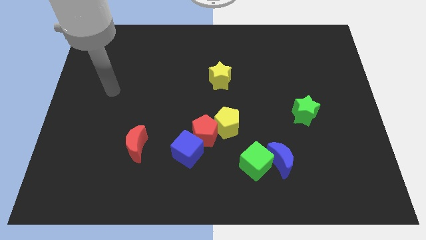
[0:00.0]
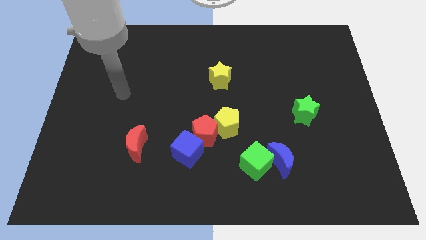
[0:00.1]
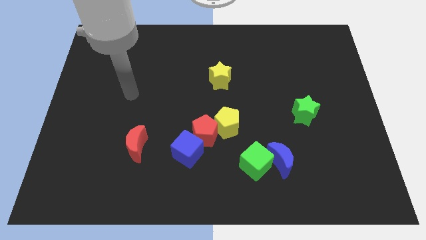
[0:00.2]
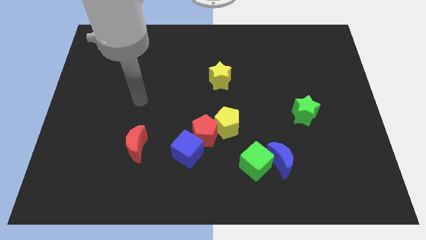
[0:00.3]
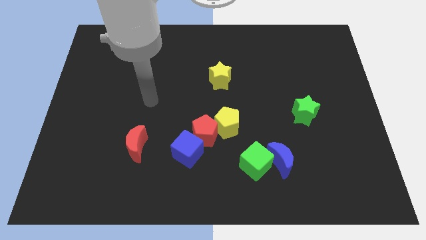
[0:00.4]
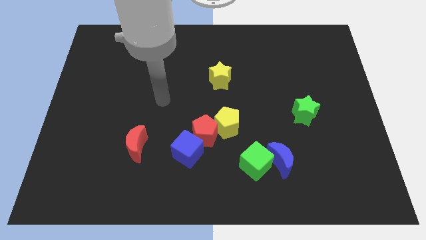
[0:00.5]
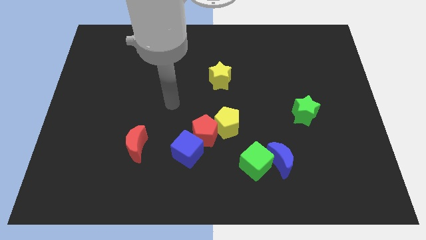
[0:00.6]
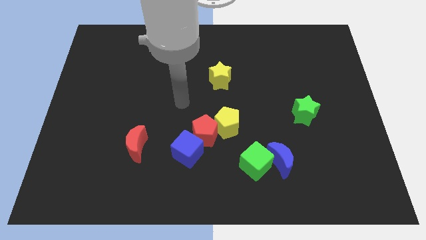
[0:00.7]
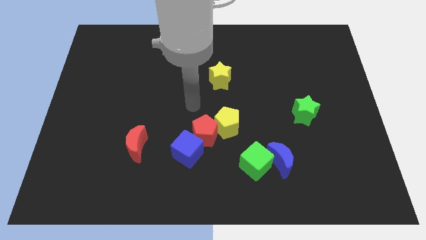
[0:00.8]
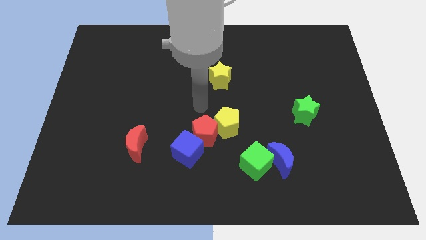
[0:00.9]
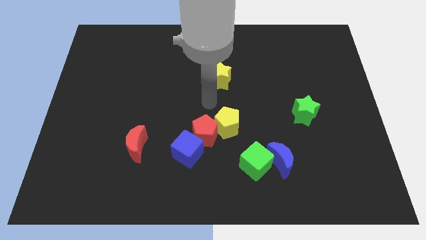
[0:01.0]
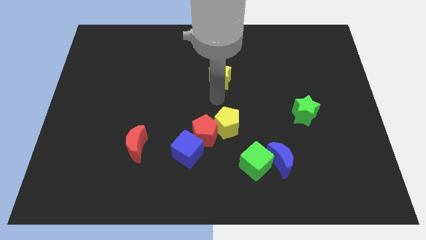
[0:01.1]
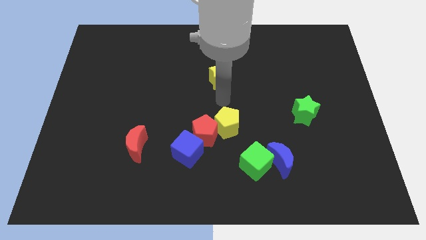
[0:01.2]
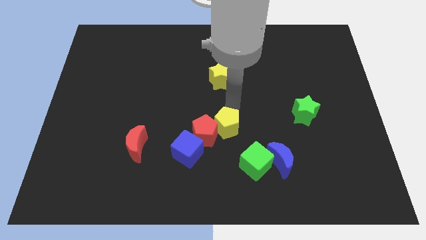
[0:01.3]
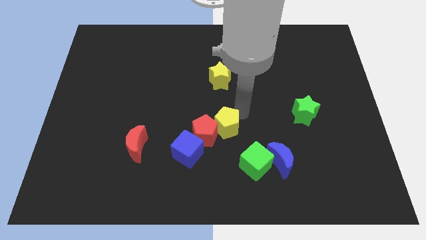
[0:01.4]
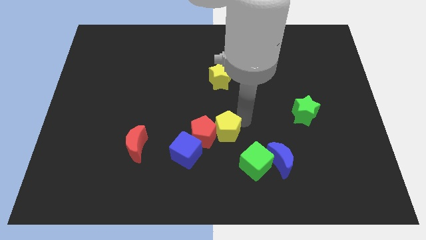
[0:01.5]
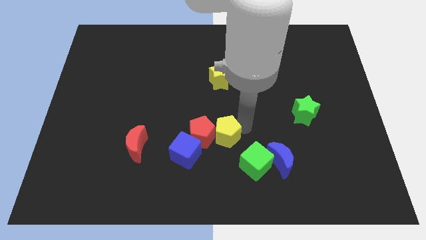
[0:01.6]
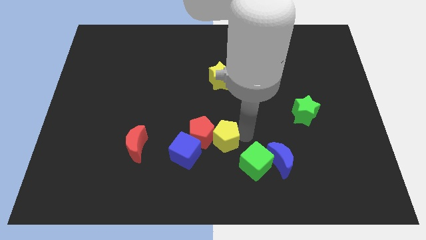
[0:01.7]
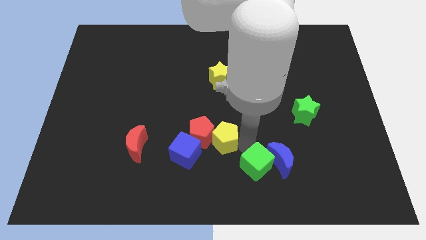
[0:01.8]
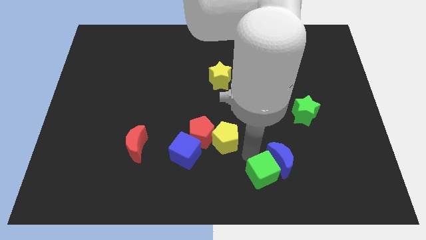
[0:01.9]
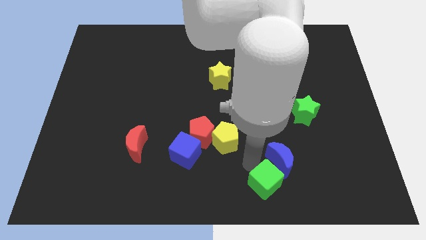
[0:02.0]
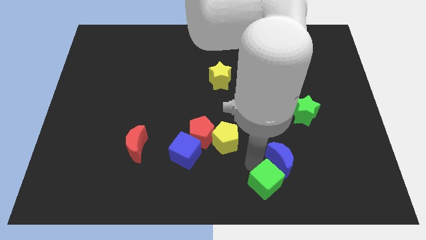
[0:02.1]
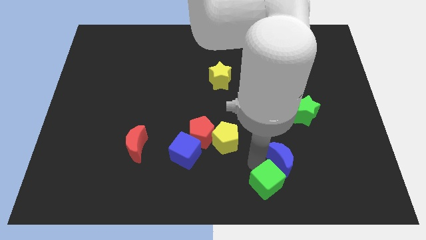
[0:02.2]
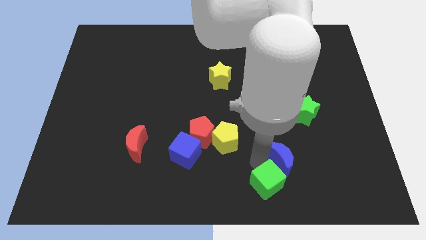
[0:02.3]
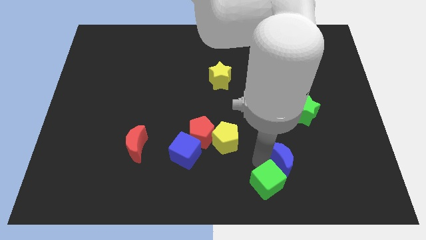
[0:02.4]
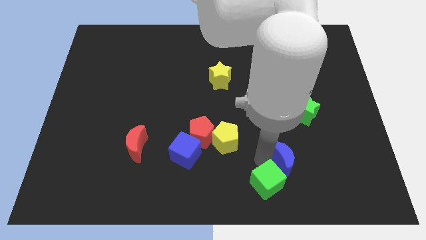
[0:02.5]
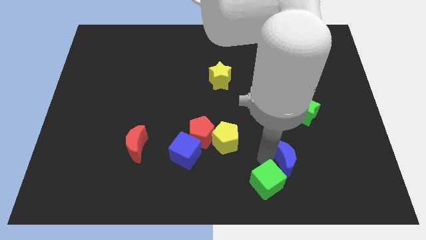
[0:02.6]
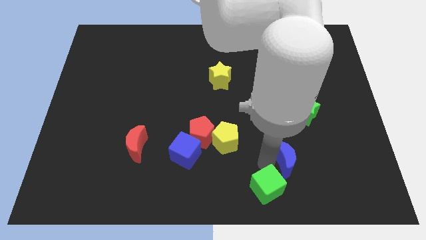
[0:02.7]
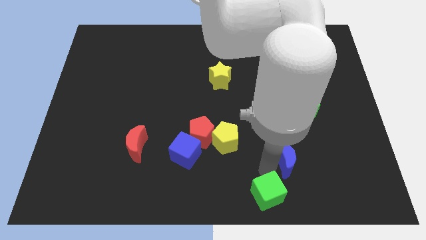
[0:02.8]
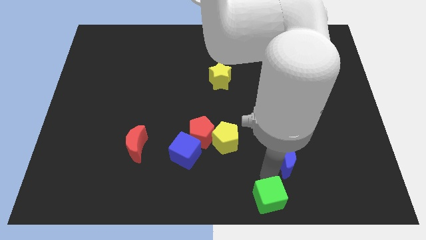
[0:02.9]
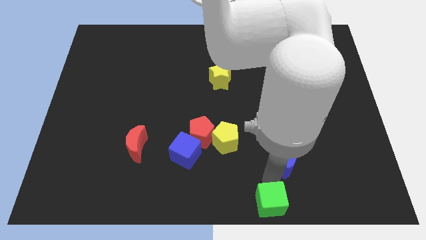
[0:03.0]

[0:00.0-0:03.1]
separate the blue moon from the green cube

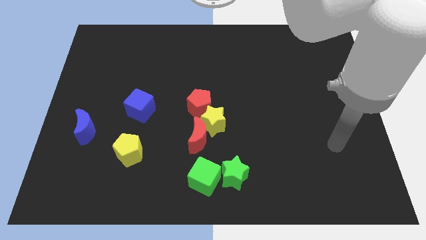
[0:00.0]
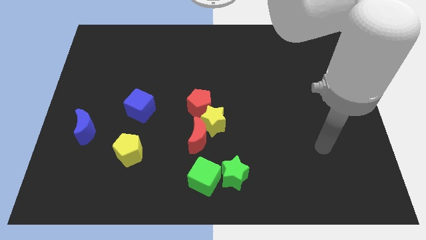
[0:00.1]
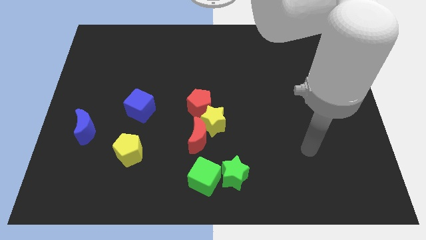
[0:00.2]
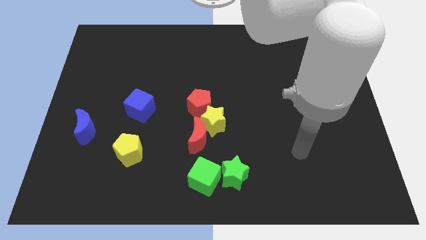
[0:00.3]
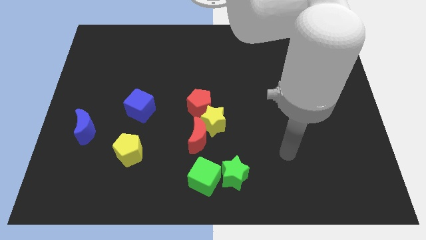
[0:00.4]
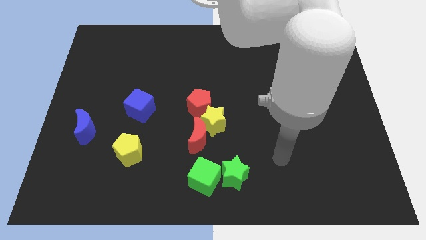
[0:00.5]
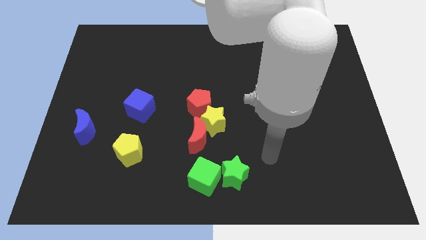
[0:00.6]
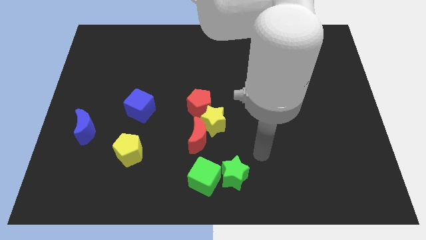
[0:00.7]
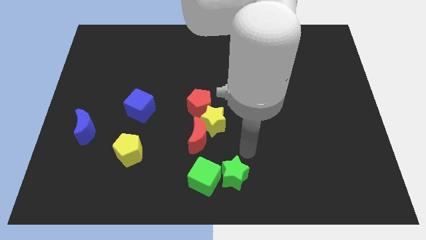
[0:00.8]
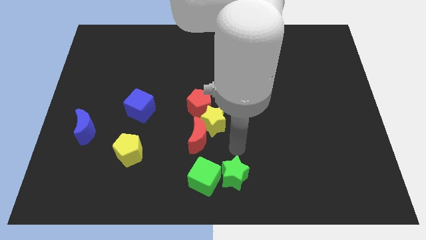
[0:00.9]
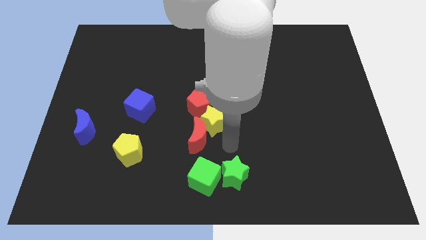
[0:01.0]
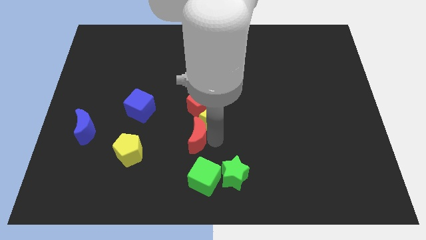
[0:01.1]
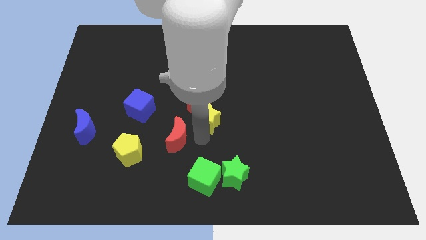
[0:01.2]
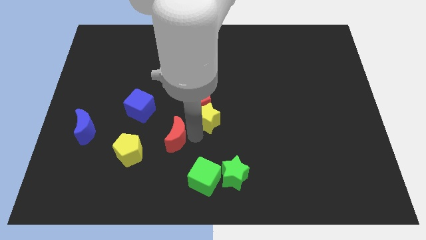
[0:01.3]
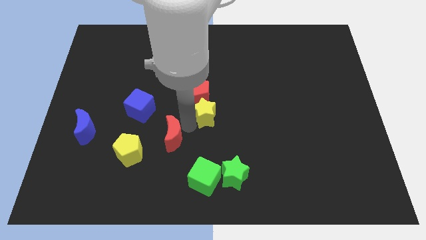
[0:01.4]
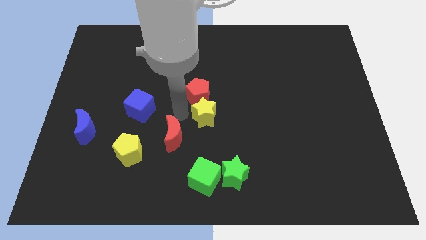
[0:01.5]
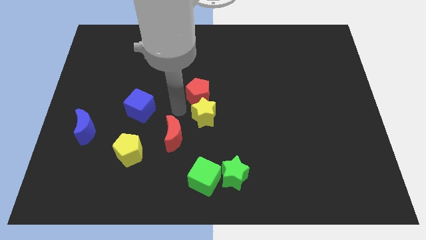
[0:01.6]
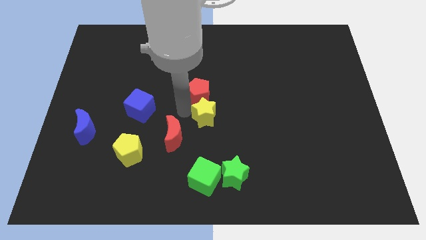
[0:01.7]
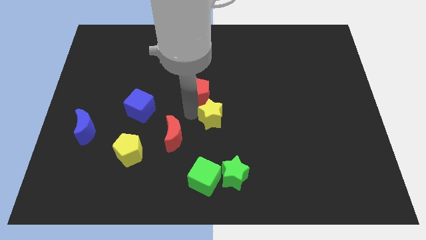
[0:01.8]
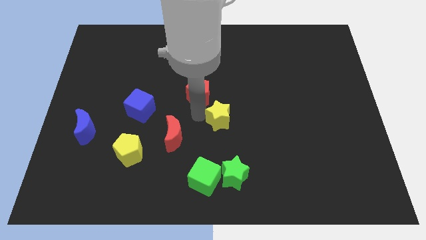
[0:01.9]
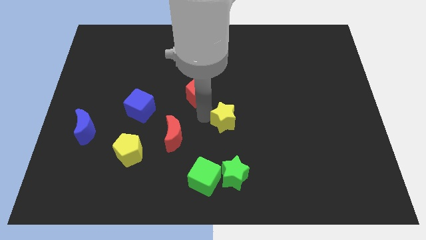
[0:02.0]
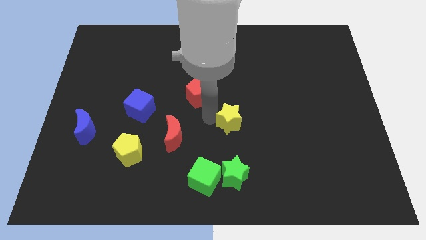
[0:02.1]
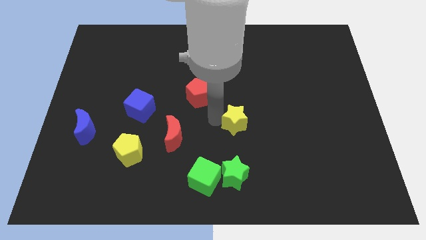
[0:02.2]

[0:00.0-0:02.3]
move the yellow star away from the red moon and red pentagon

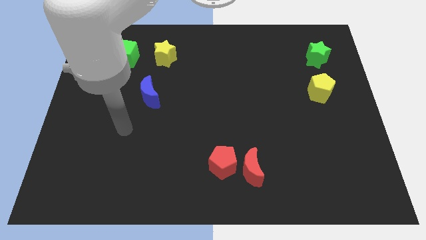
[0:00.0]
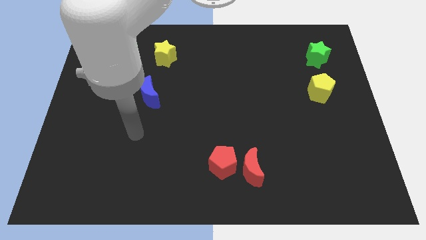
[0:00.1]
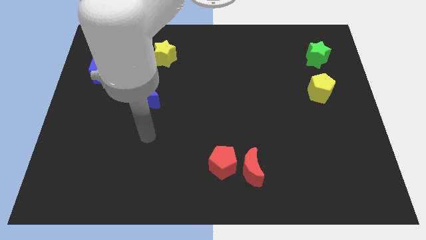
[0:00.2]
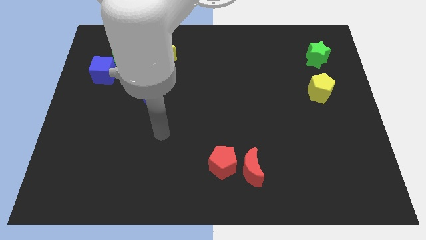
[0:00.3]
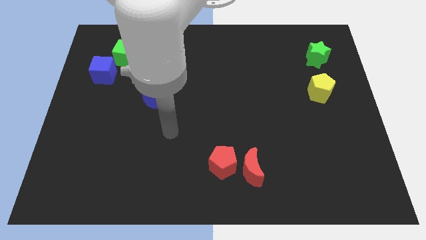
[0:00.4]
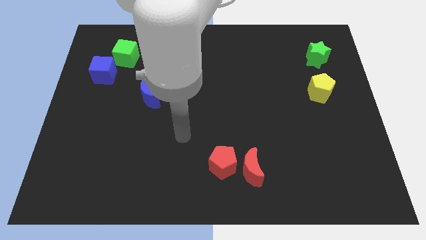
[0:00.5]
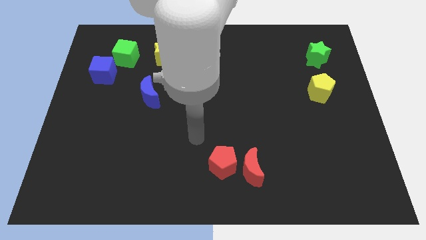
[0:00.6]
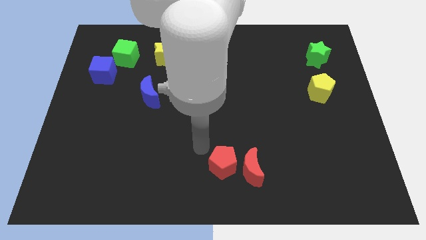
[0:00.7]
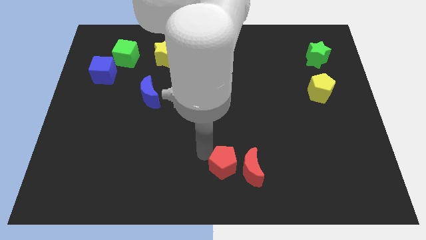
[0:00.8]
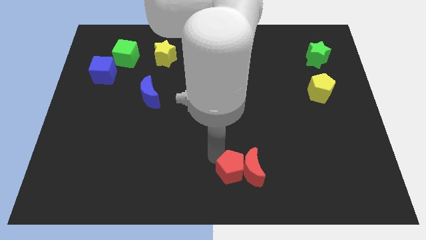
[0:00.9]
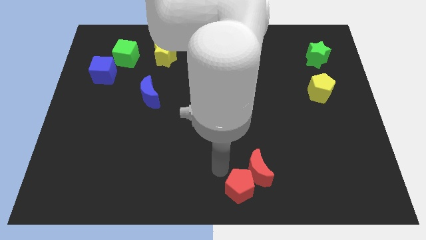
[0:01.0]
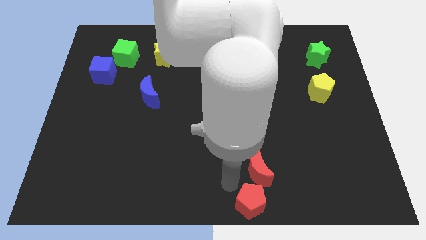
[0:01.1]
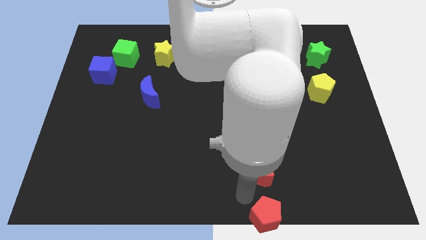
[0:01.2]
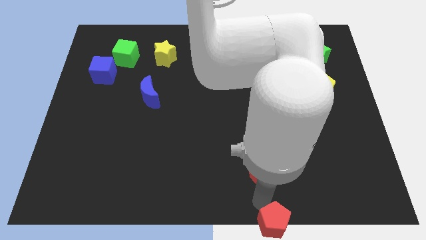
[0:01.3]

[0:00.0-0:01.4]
move the red moon away from the red pentagon

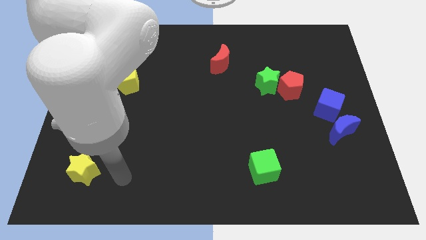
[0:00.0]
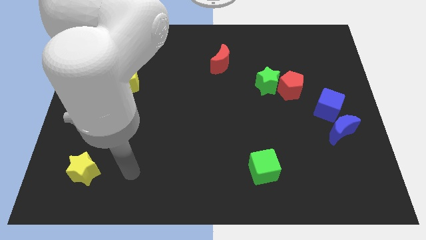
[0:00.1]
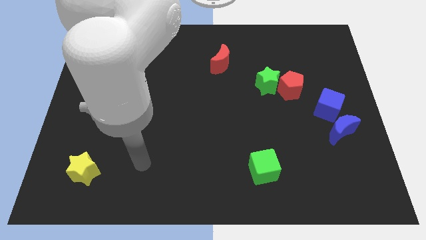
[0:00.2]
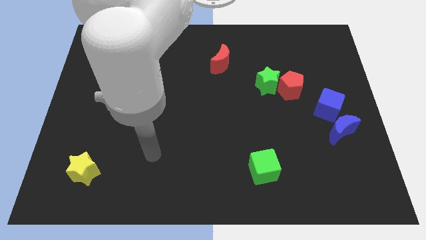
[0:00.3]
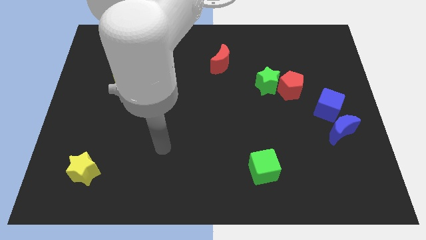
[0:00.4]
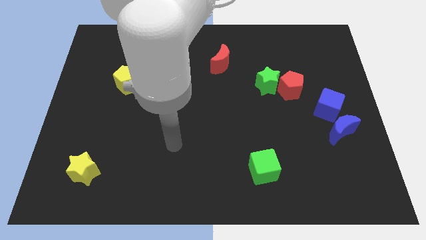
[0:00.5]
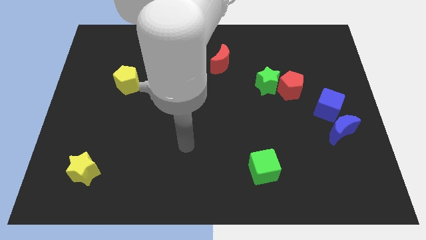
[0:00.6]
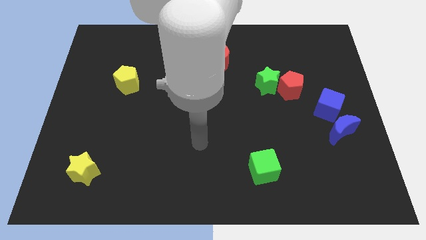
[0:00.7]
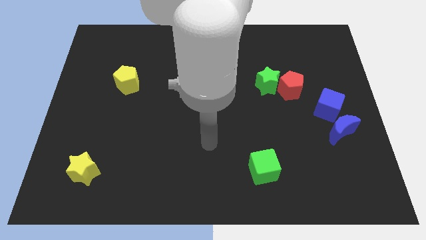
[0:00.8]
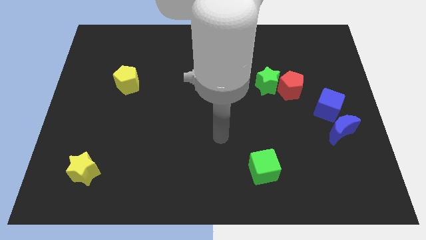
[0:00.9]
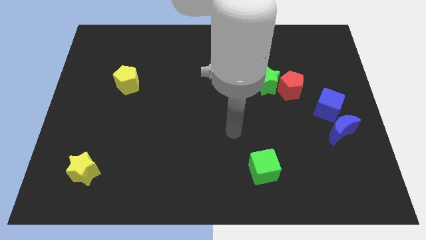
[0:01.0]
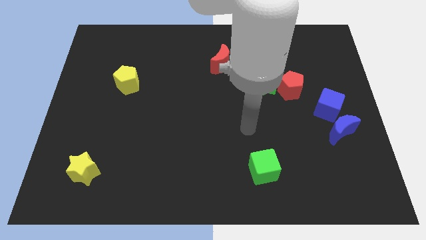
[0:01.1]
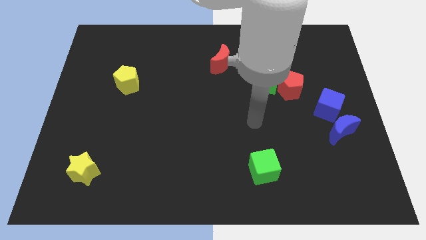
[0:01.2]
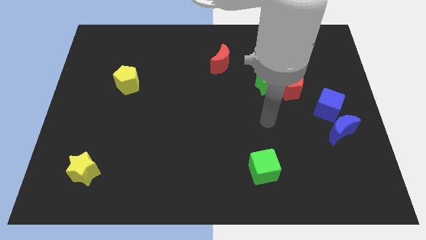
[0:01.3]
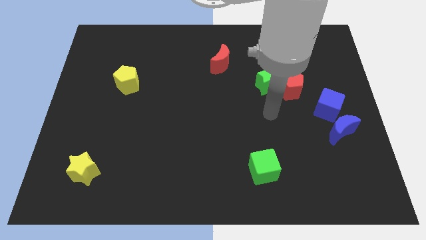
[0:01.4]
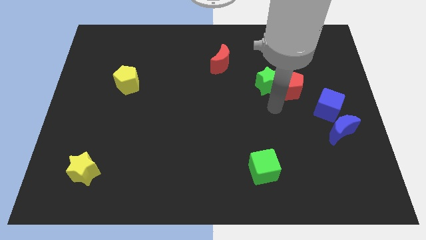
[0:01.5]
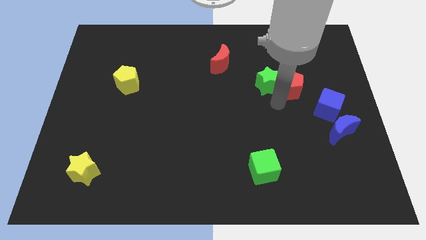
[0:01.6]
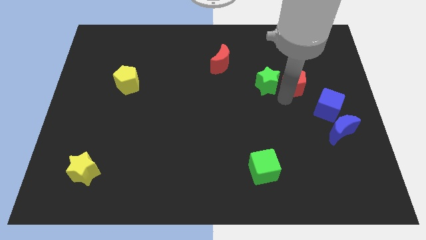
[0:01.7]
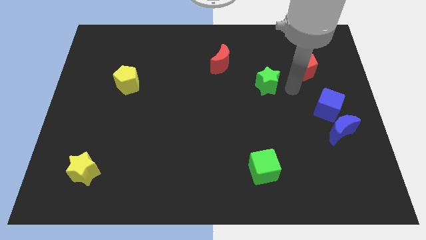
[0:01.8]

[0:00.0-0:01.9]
move the green star away from the red pentagon

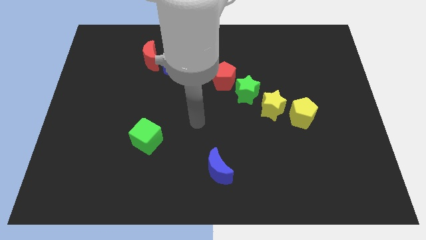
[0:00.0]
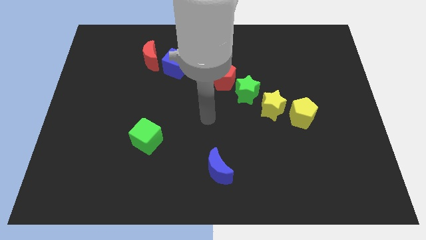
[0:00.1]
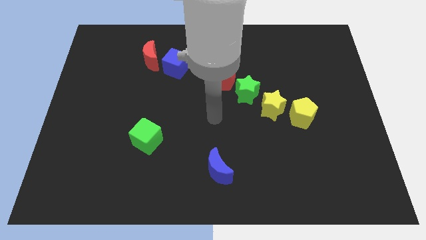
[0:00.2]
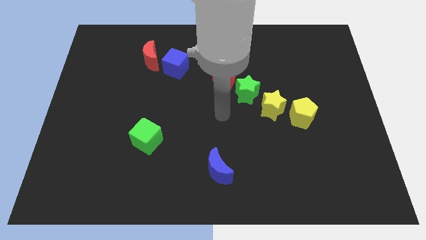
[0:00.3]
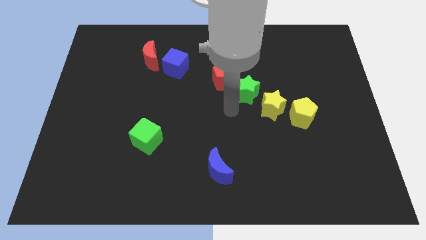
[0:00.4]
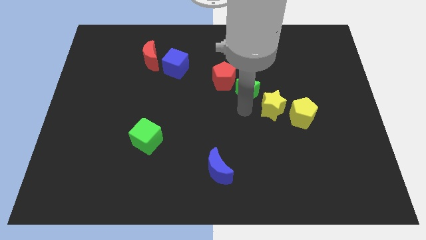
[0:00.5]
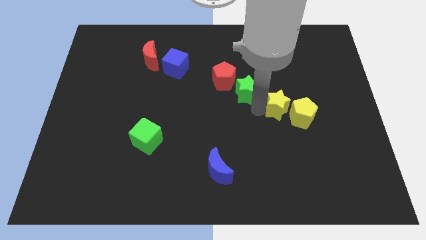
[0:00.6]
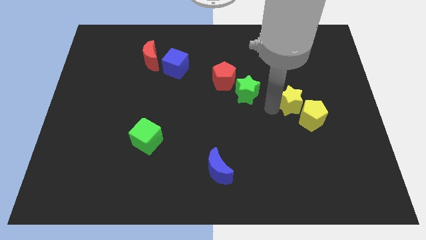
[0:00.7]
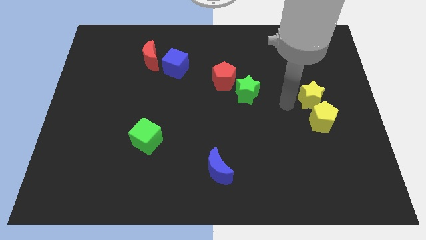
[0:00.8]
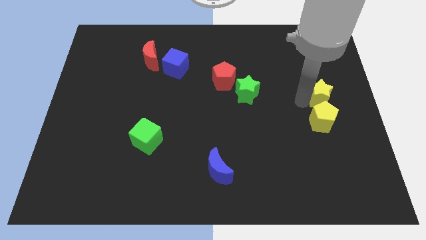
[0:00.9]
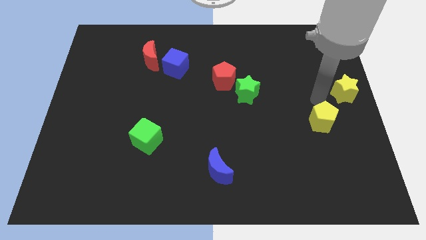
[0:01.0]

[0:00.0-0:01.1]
separate the yellow pentagon from the yellow star
